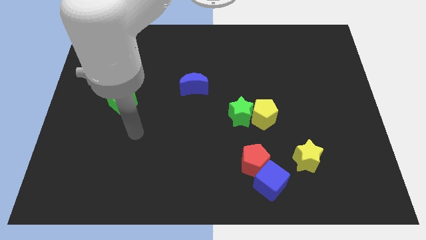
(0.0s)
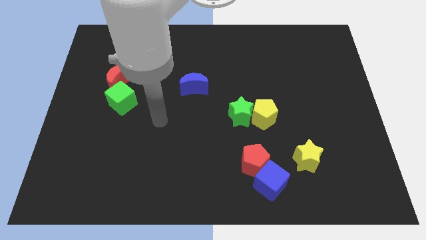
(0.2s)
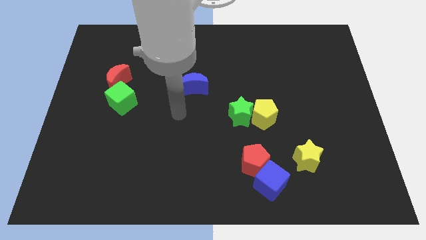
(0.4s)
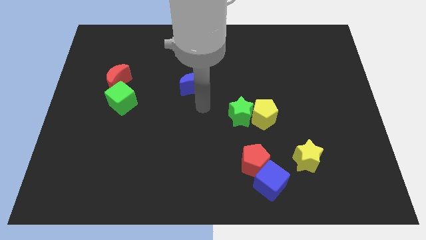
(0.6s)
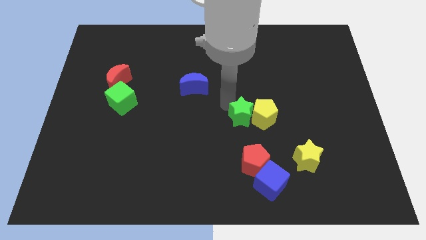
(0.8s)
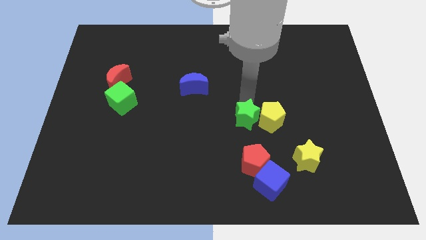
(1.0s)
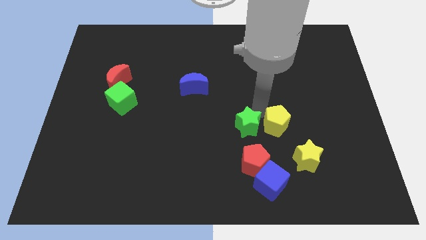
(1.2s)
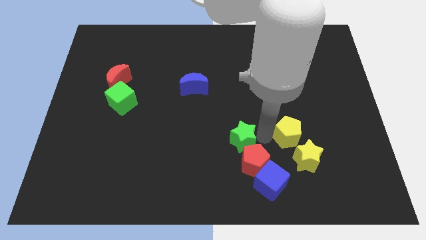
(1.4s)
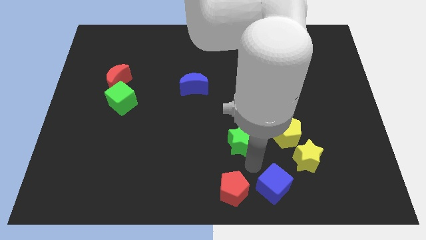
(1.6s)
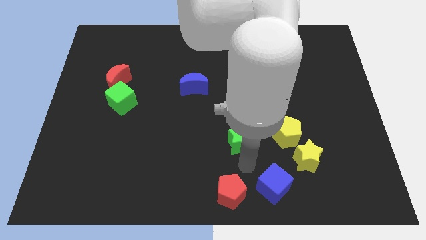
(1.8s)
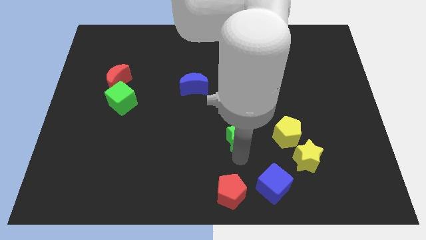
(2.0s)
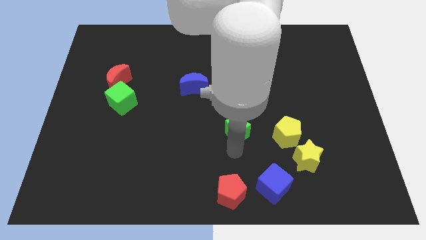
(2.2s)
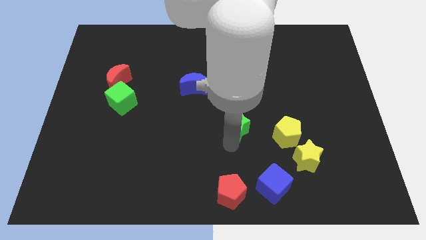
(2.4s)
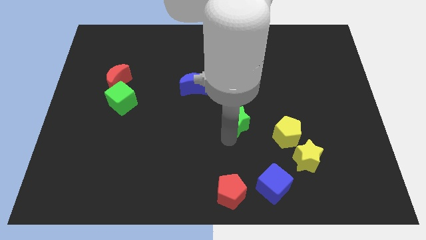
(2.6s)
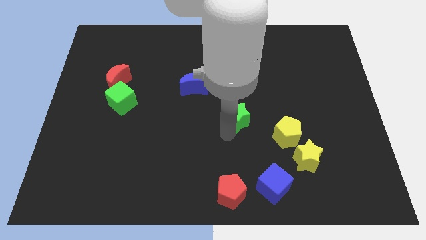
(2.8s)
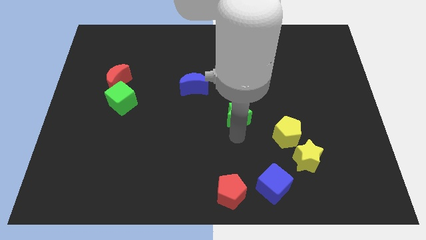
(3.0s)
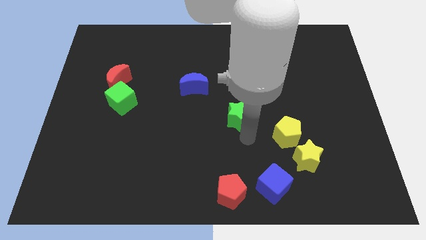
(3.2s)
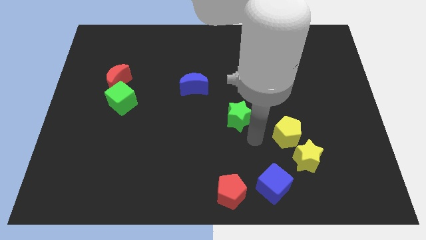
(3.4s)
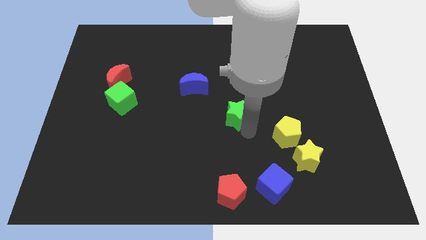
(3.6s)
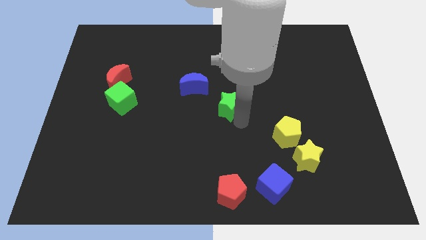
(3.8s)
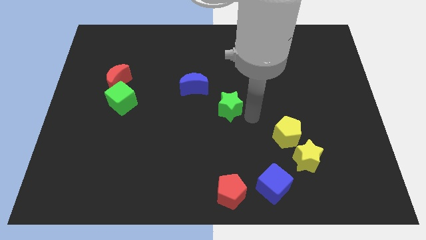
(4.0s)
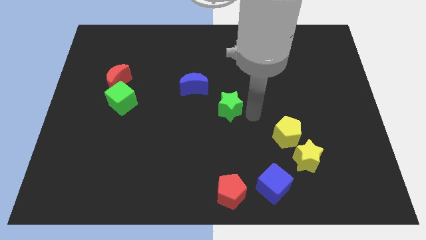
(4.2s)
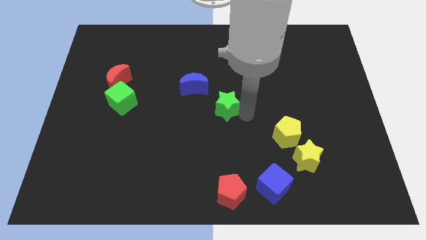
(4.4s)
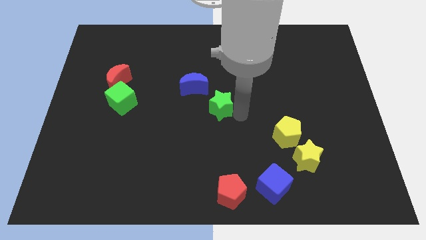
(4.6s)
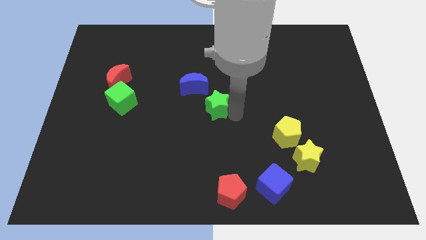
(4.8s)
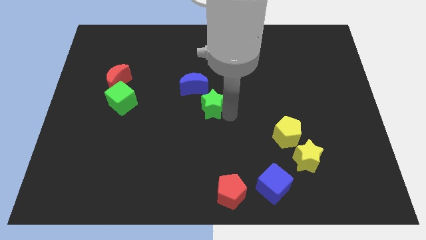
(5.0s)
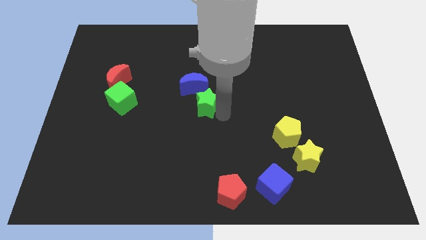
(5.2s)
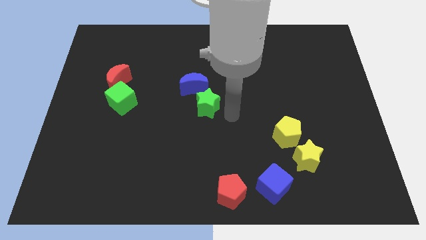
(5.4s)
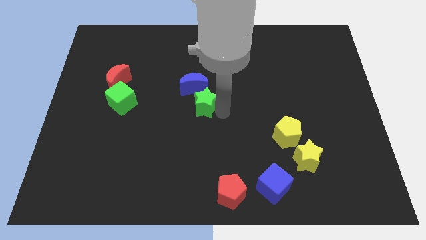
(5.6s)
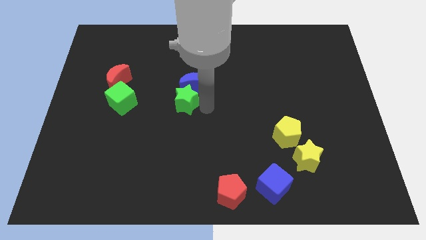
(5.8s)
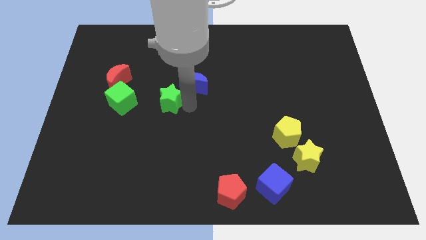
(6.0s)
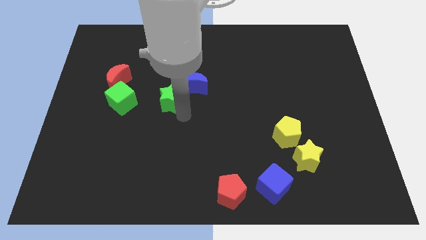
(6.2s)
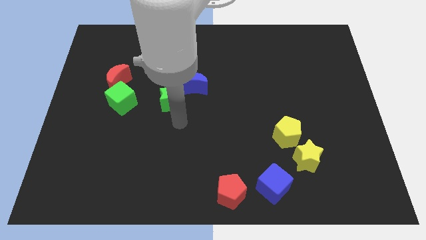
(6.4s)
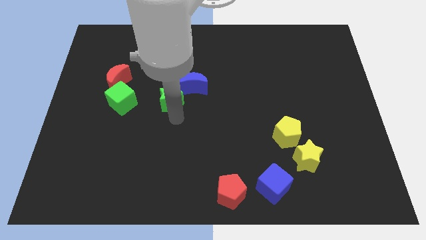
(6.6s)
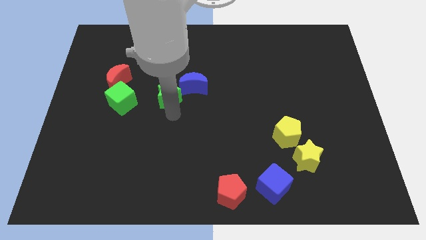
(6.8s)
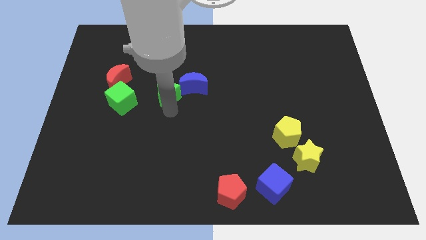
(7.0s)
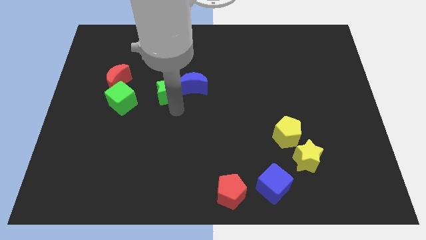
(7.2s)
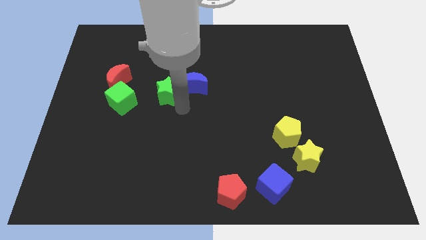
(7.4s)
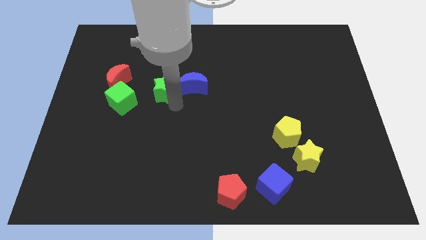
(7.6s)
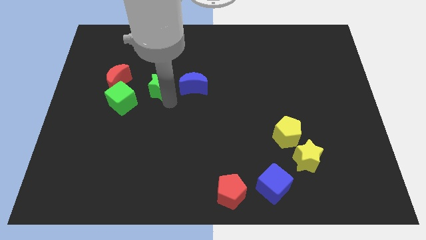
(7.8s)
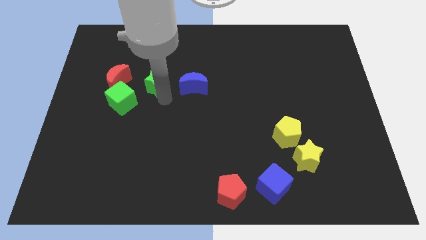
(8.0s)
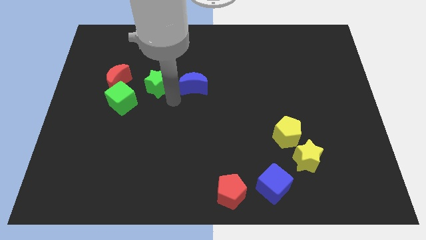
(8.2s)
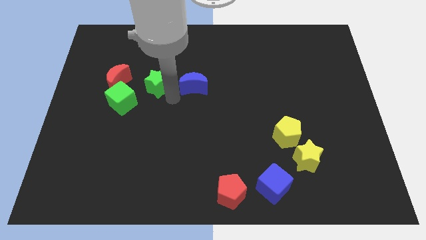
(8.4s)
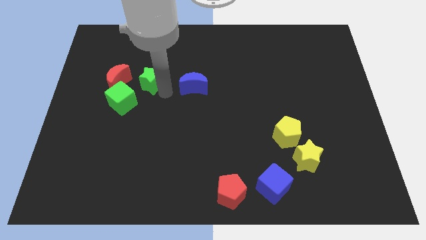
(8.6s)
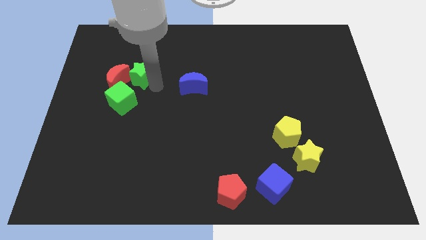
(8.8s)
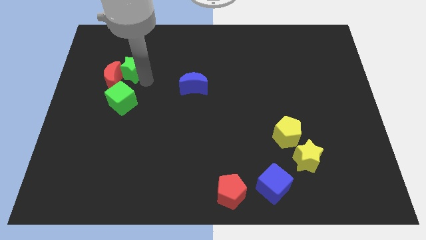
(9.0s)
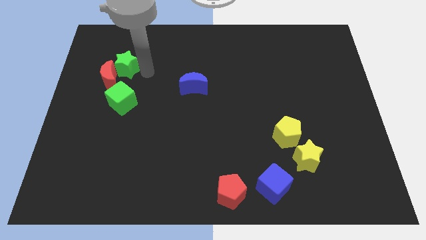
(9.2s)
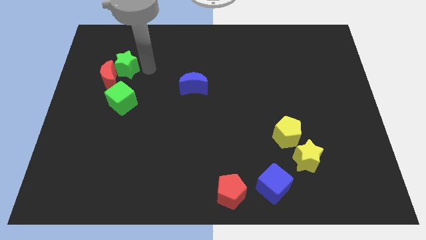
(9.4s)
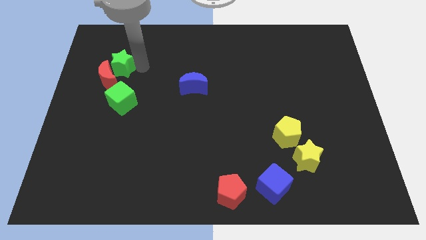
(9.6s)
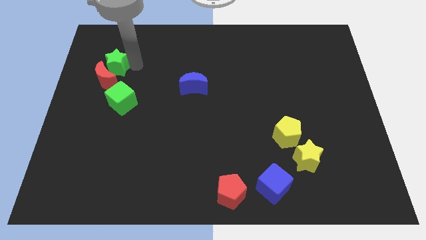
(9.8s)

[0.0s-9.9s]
put the green star diagonally up and to the left of the red moon

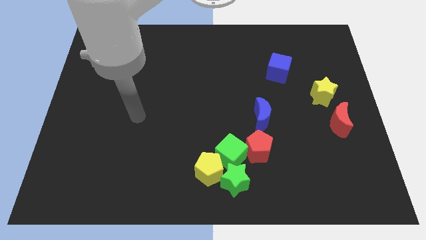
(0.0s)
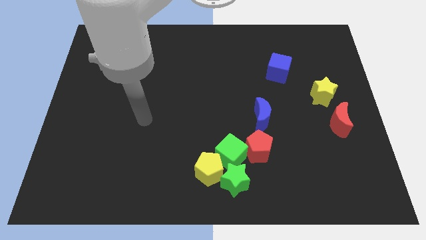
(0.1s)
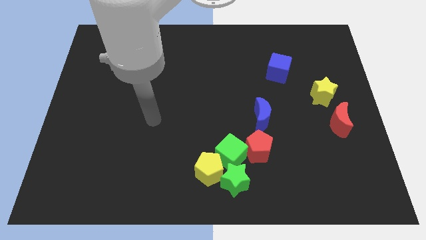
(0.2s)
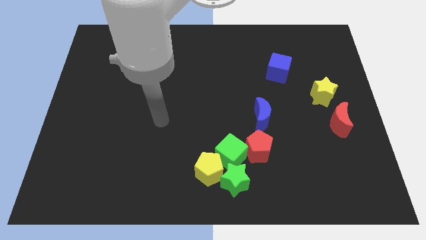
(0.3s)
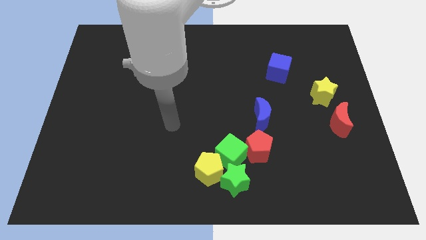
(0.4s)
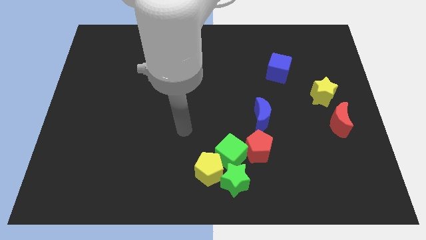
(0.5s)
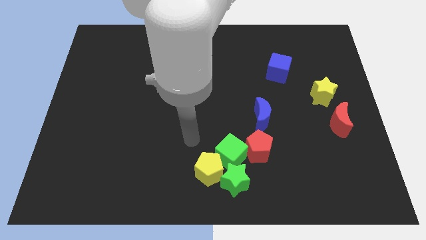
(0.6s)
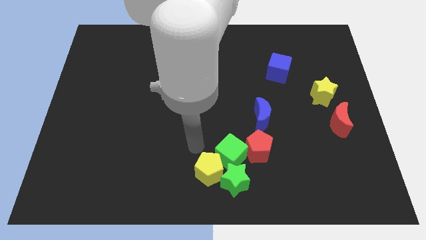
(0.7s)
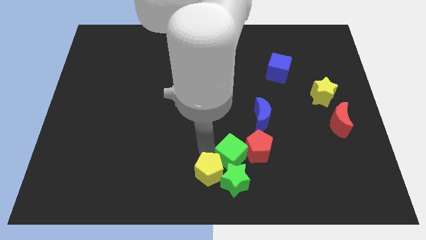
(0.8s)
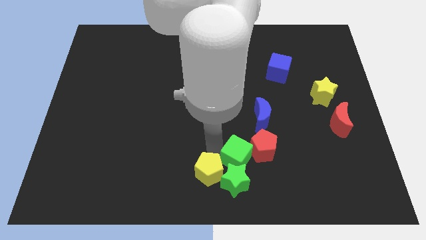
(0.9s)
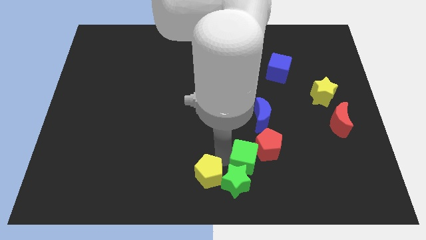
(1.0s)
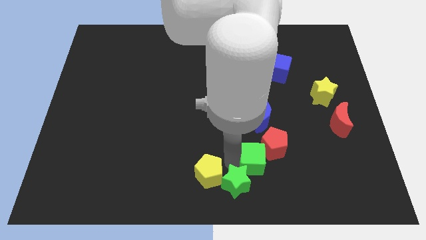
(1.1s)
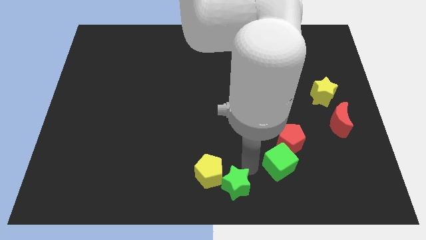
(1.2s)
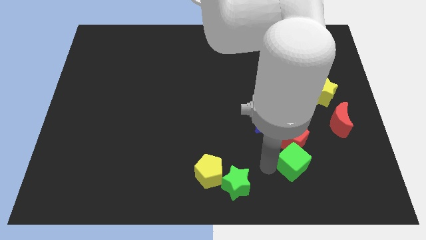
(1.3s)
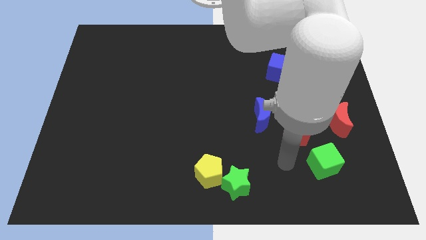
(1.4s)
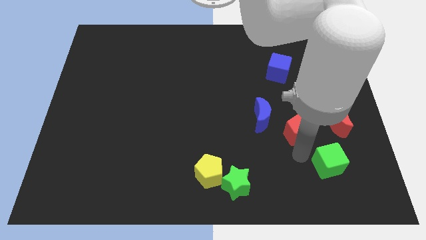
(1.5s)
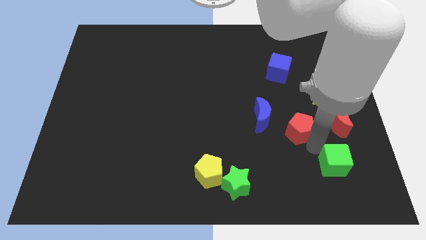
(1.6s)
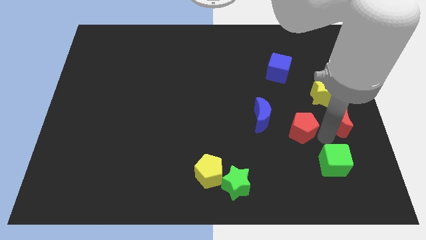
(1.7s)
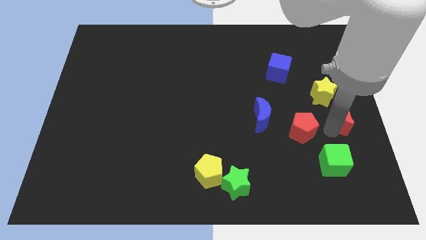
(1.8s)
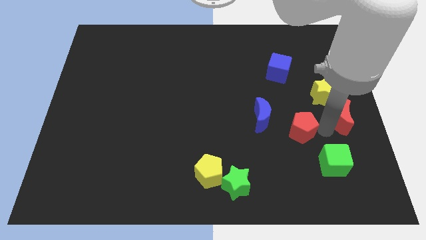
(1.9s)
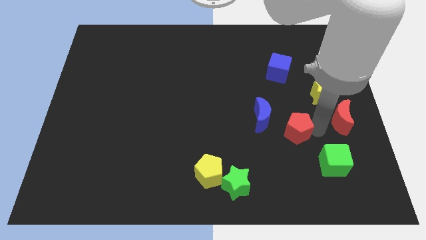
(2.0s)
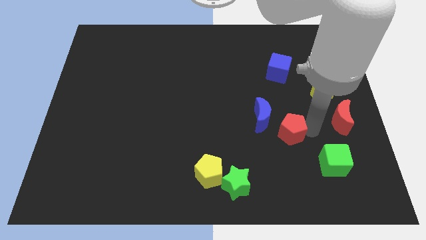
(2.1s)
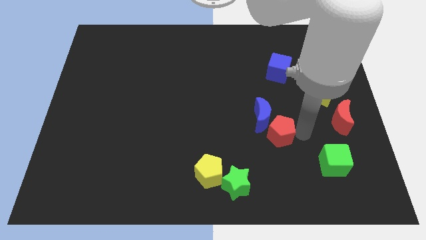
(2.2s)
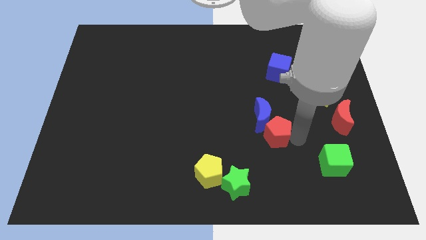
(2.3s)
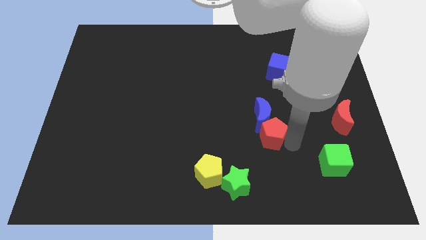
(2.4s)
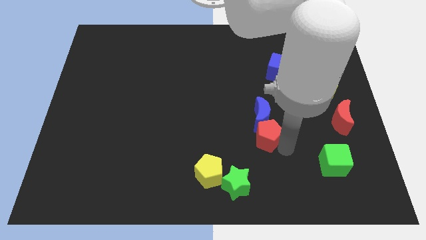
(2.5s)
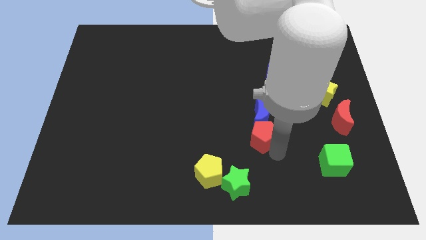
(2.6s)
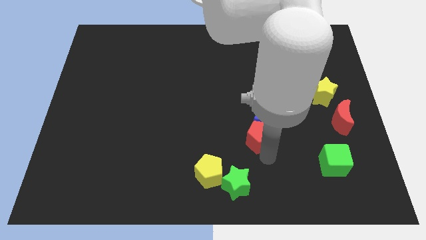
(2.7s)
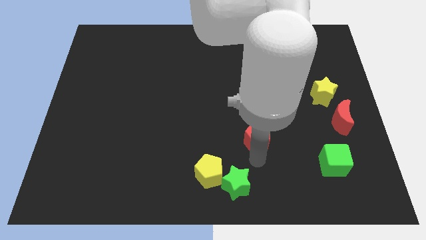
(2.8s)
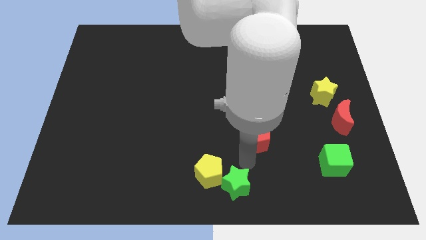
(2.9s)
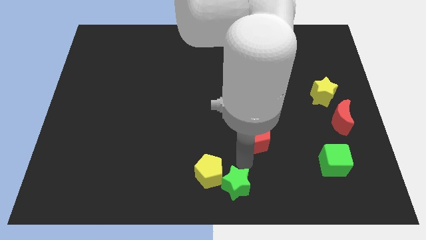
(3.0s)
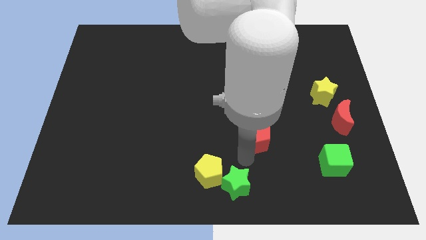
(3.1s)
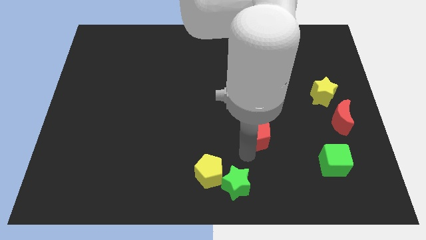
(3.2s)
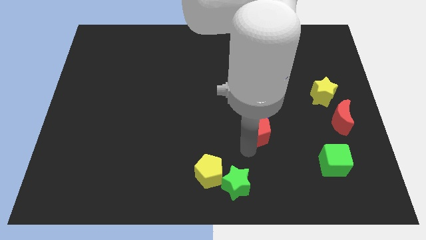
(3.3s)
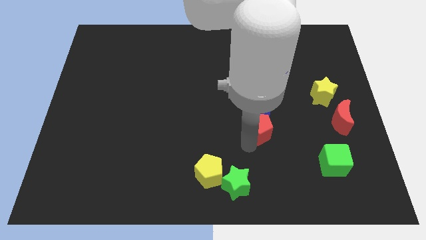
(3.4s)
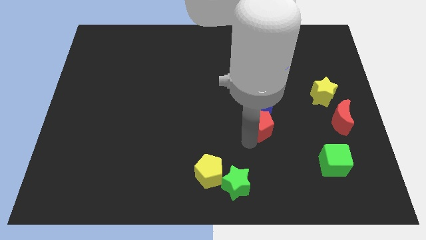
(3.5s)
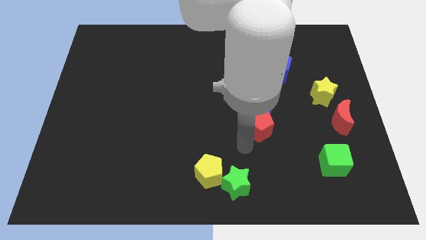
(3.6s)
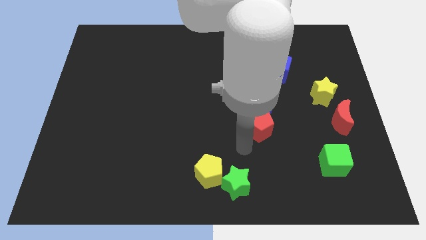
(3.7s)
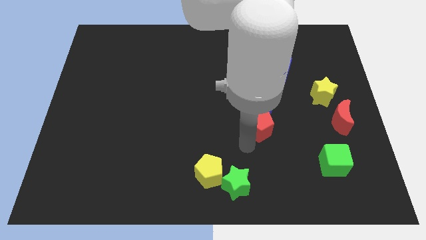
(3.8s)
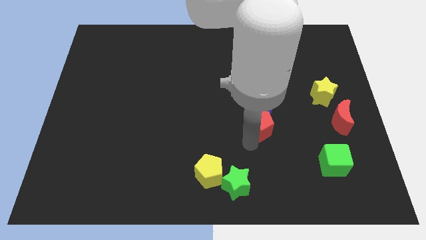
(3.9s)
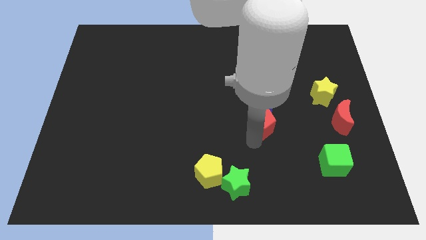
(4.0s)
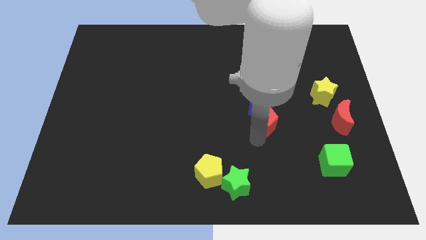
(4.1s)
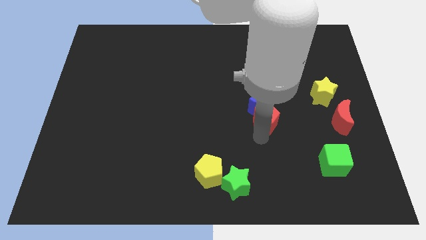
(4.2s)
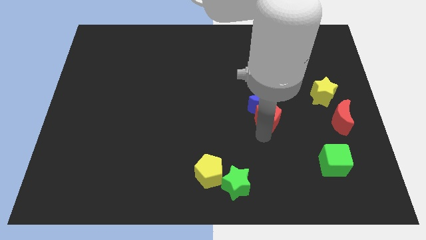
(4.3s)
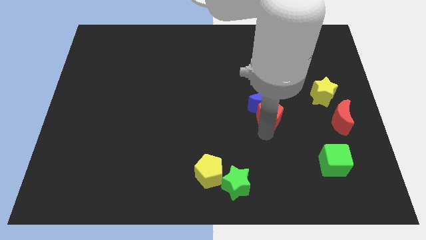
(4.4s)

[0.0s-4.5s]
push the red pentagon to the bottom of the blue cube
